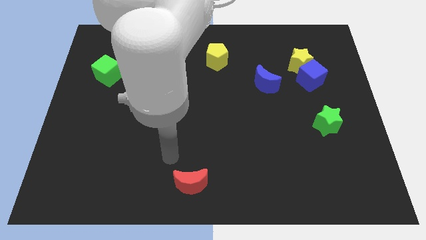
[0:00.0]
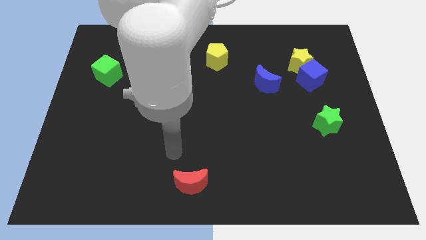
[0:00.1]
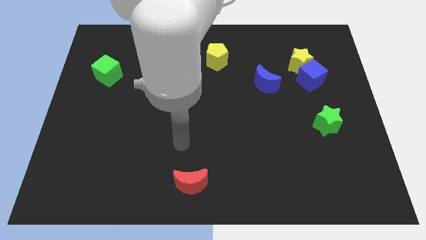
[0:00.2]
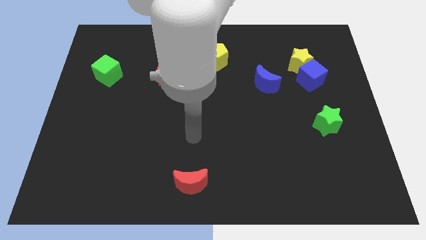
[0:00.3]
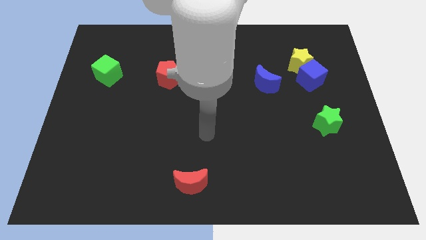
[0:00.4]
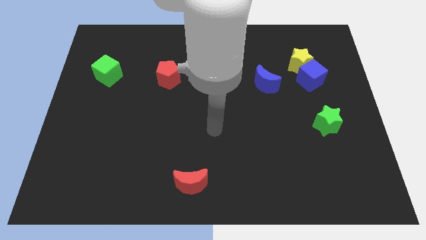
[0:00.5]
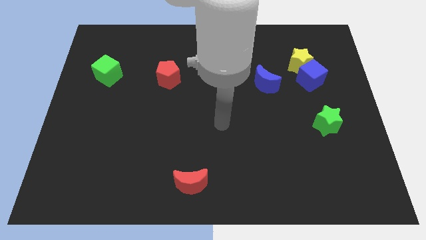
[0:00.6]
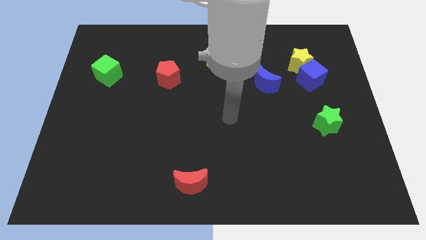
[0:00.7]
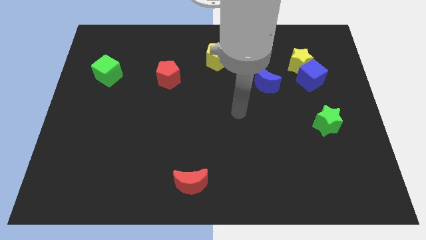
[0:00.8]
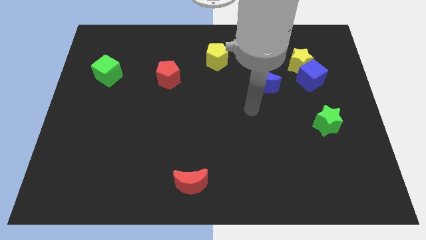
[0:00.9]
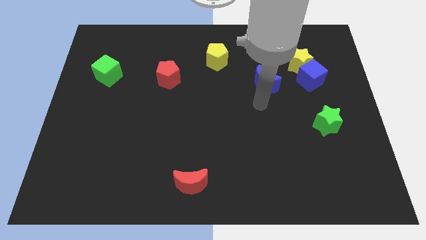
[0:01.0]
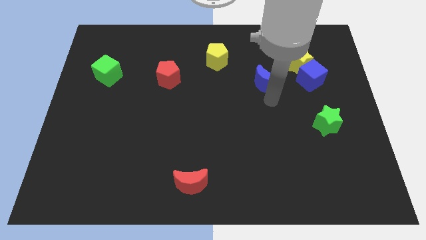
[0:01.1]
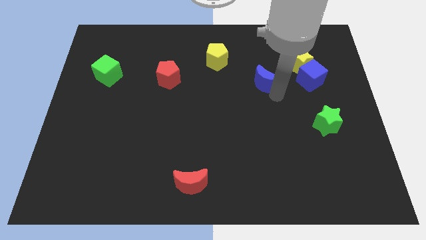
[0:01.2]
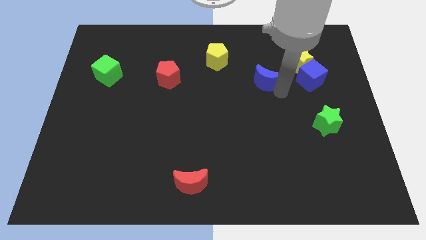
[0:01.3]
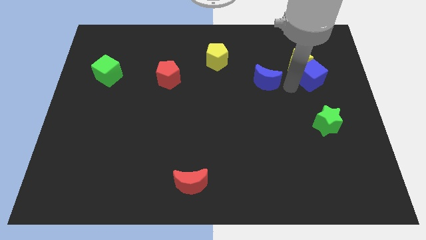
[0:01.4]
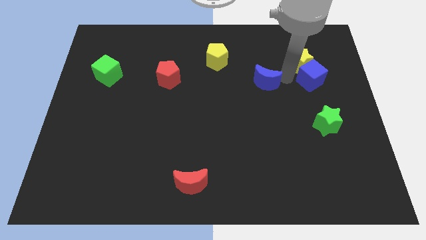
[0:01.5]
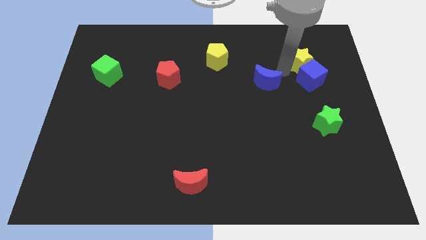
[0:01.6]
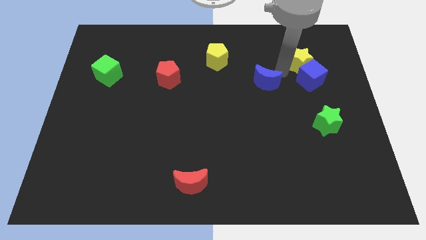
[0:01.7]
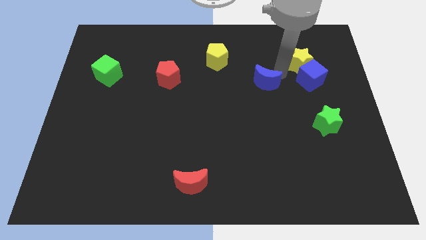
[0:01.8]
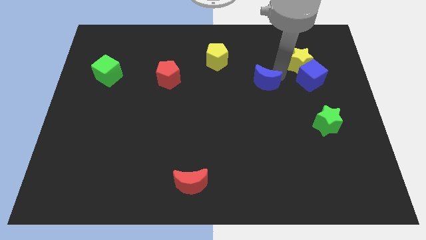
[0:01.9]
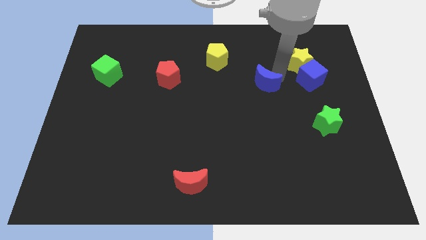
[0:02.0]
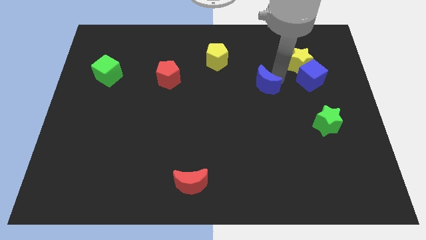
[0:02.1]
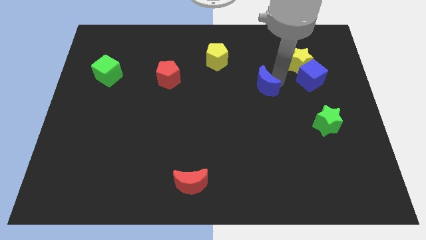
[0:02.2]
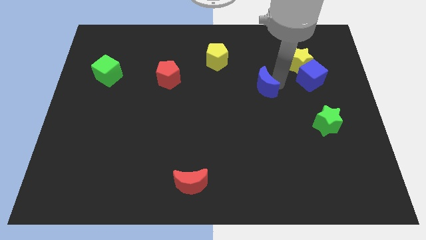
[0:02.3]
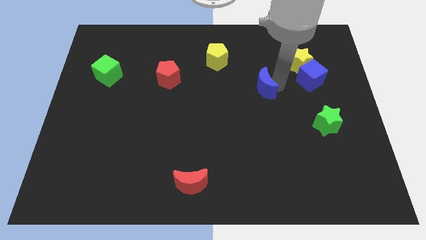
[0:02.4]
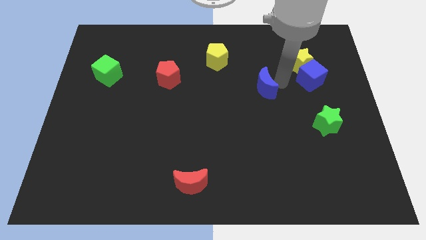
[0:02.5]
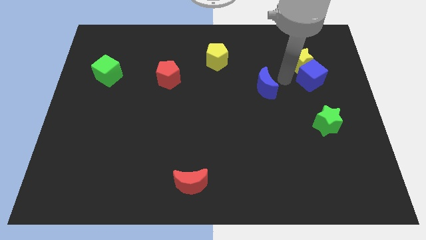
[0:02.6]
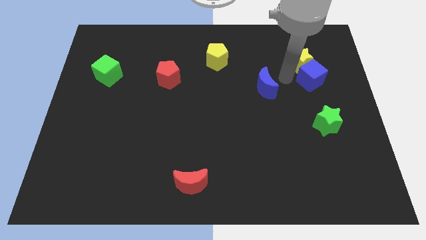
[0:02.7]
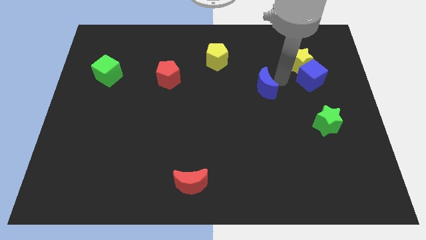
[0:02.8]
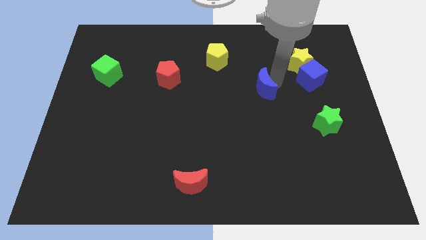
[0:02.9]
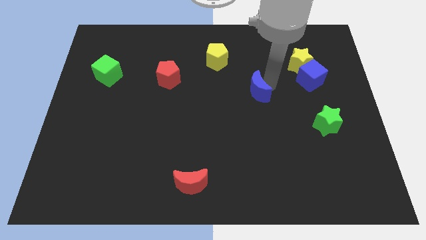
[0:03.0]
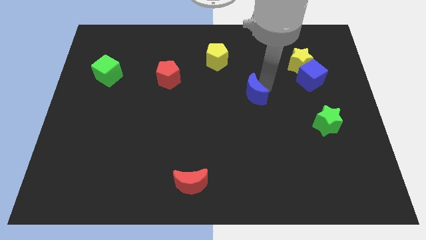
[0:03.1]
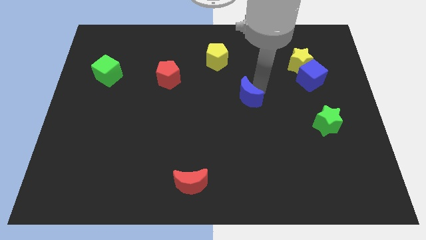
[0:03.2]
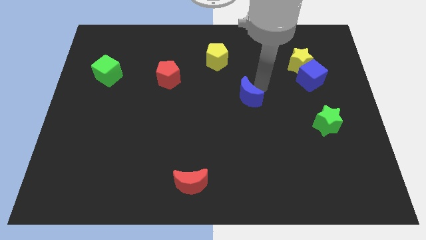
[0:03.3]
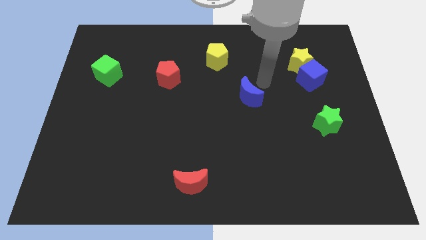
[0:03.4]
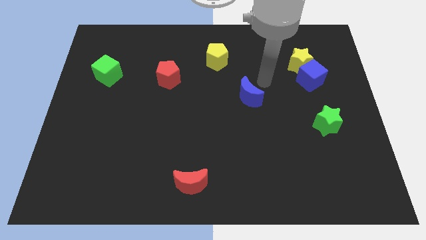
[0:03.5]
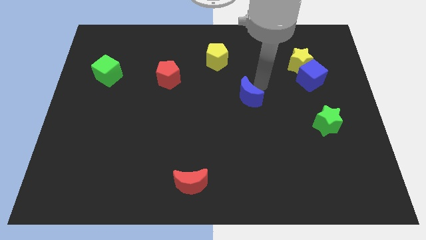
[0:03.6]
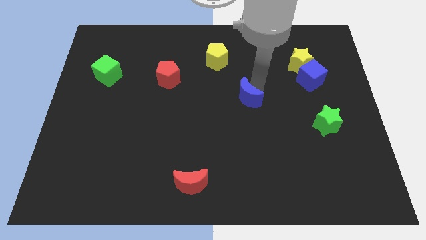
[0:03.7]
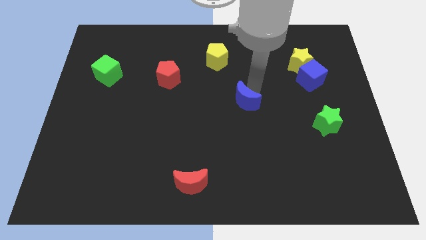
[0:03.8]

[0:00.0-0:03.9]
move the blue moon a little bit diagonally downwards and to the left

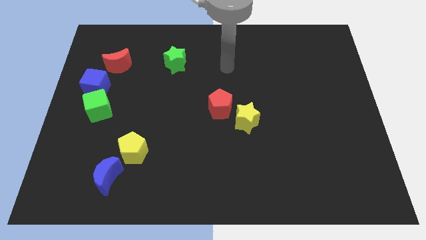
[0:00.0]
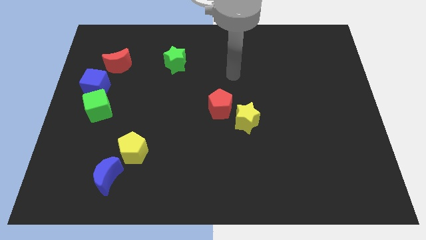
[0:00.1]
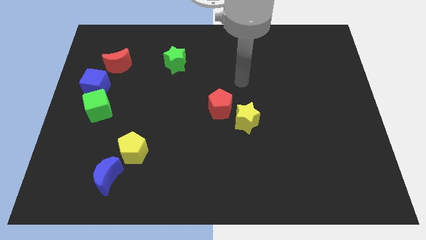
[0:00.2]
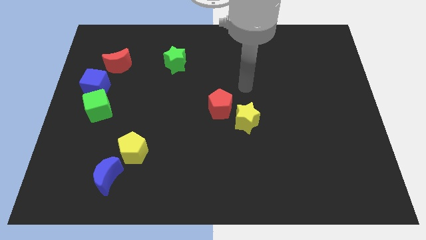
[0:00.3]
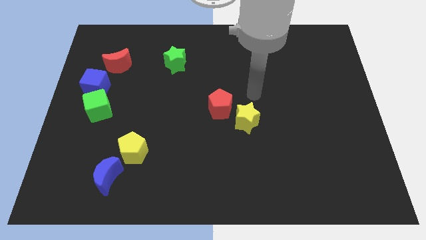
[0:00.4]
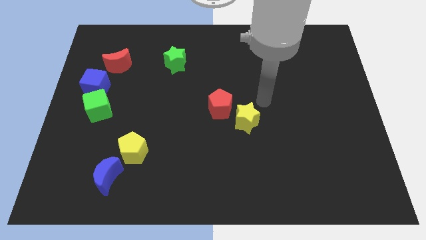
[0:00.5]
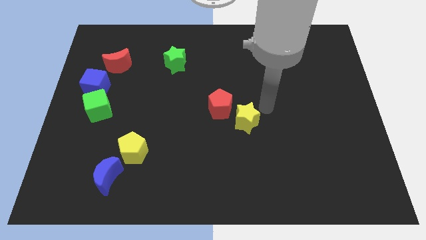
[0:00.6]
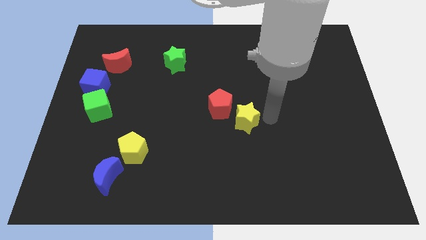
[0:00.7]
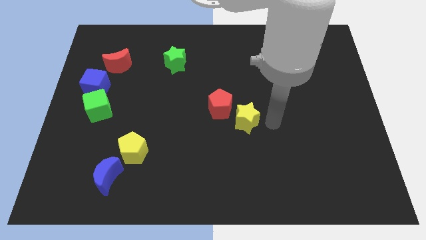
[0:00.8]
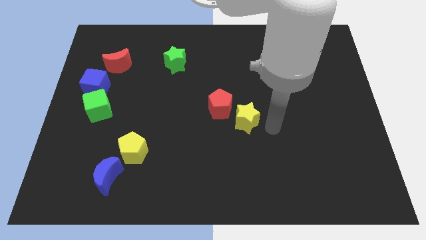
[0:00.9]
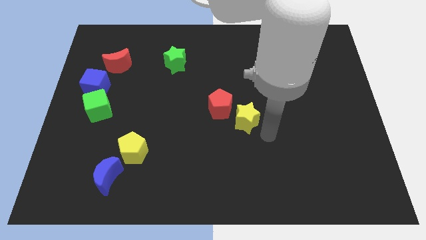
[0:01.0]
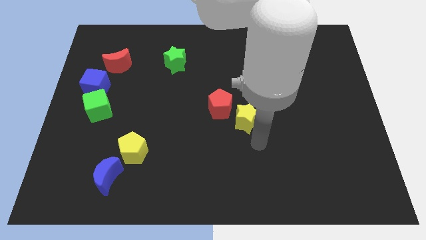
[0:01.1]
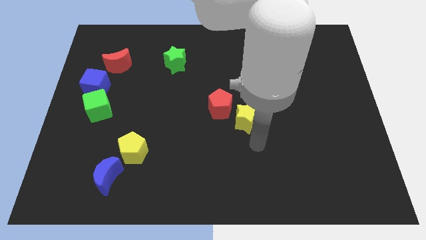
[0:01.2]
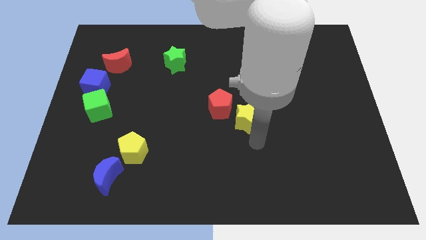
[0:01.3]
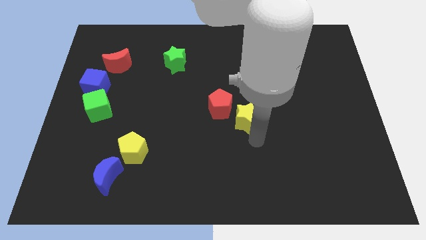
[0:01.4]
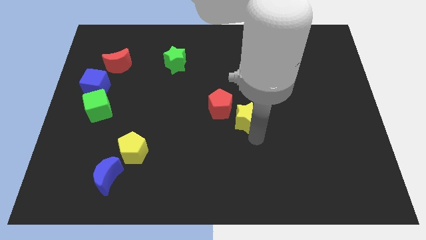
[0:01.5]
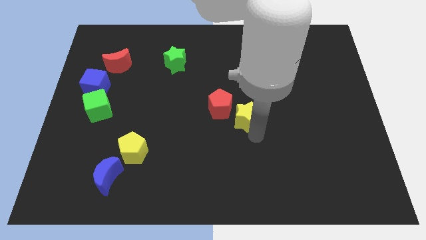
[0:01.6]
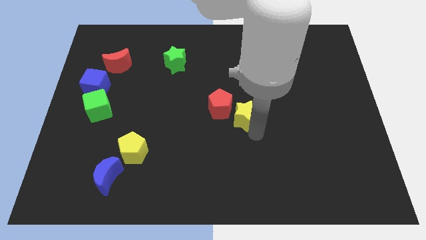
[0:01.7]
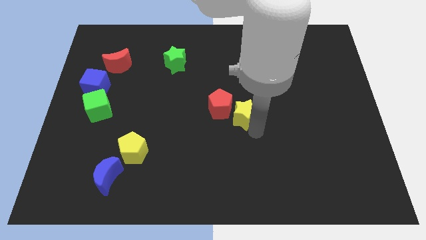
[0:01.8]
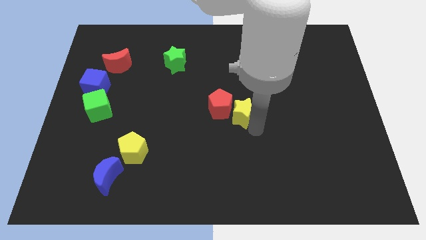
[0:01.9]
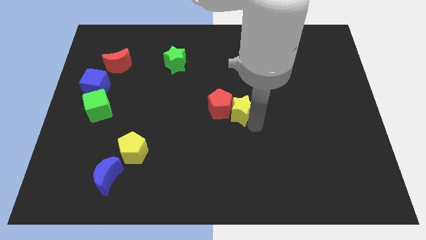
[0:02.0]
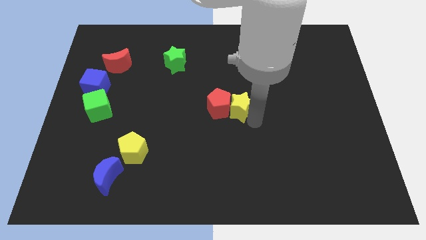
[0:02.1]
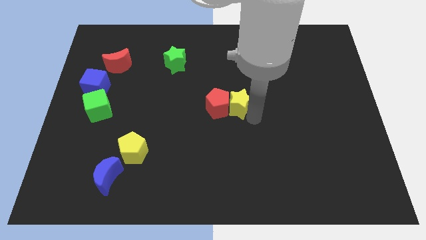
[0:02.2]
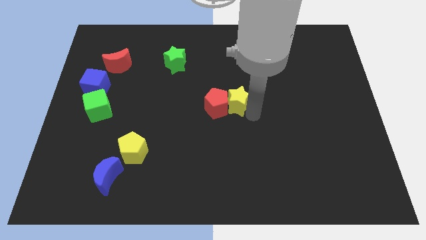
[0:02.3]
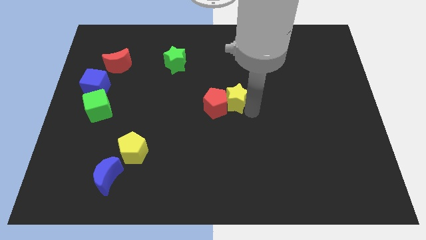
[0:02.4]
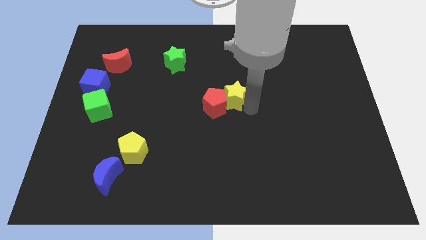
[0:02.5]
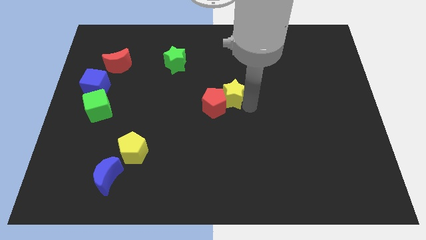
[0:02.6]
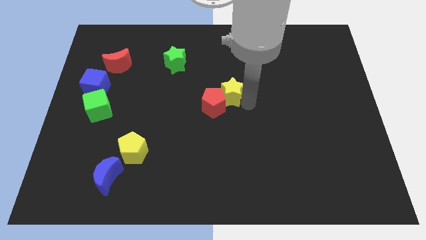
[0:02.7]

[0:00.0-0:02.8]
move the yellow star slightly upwards and then to the left

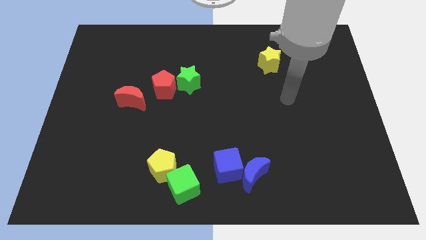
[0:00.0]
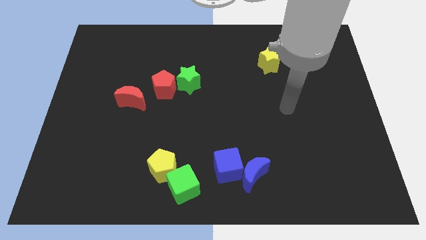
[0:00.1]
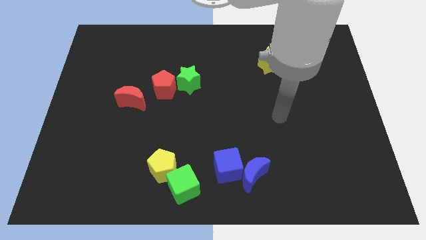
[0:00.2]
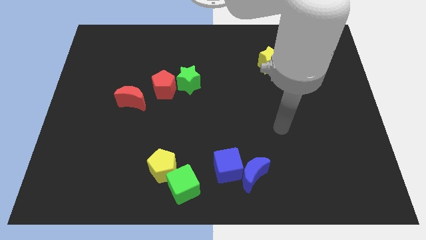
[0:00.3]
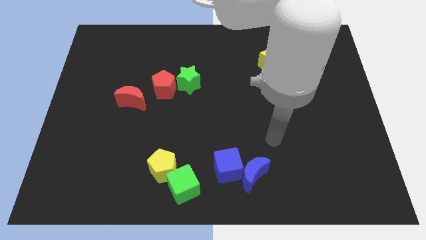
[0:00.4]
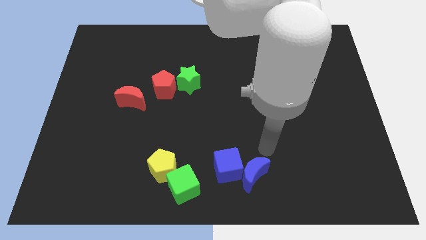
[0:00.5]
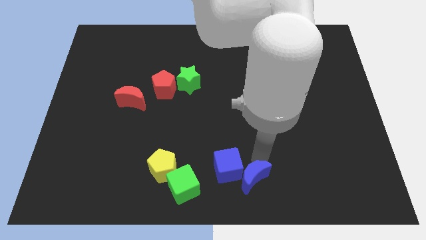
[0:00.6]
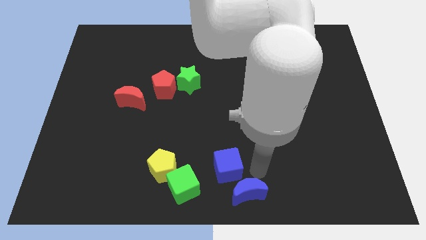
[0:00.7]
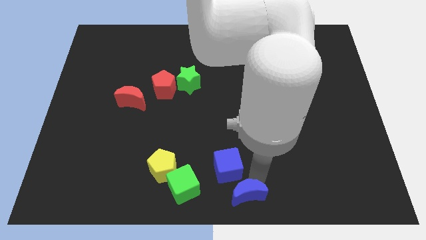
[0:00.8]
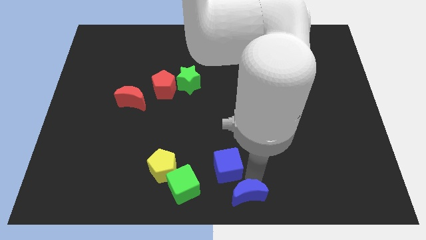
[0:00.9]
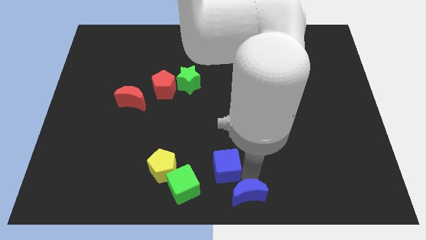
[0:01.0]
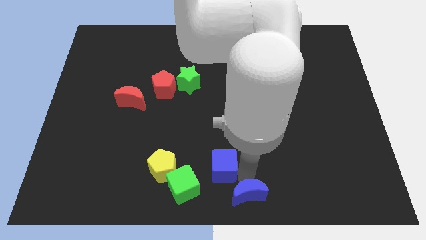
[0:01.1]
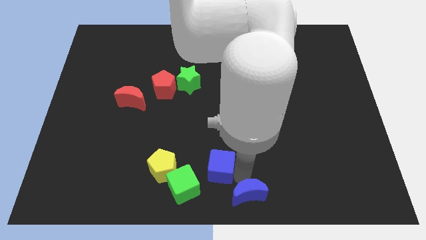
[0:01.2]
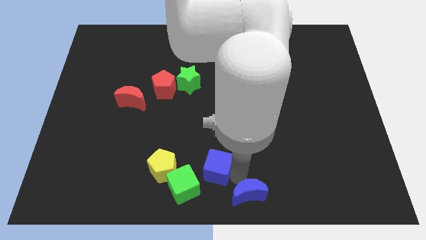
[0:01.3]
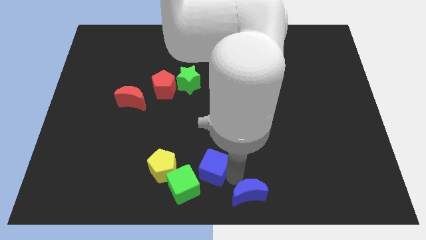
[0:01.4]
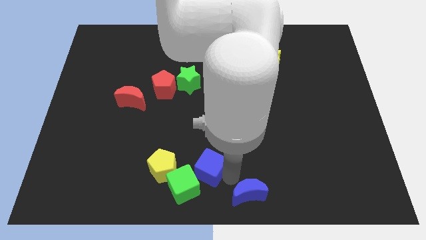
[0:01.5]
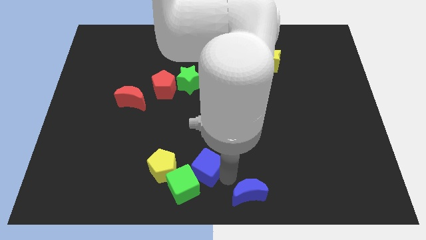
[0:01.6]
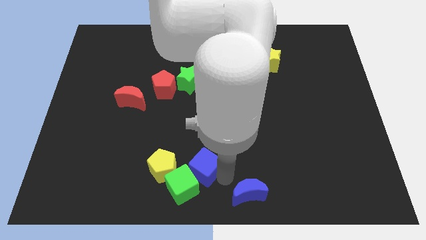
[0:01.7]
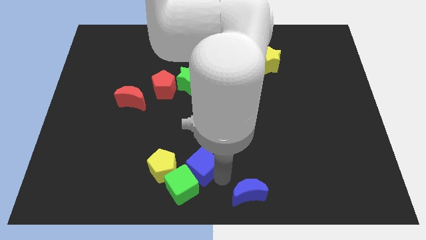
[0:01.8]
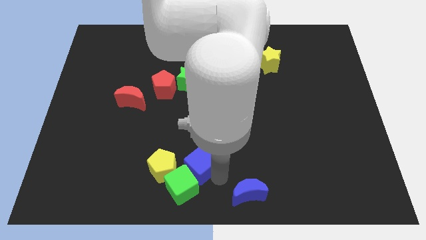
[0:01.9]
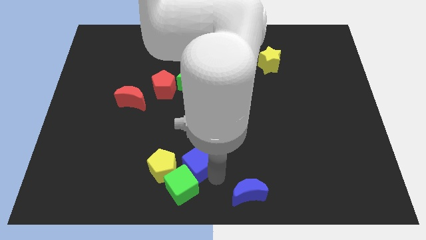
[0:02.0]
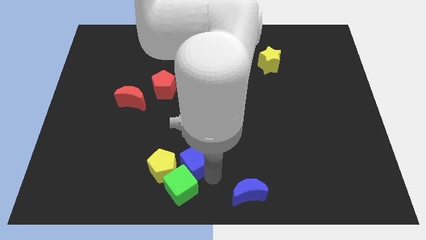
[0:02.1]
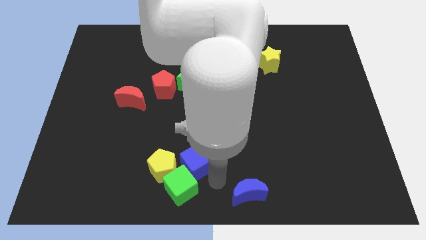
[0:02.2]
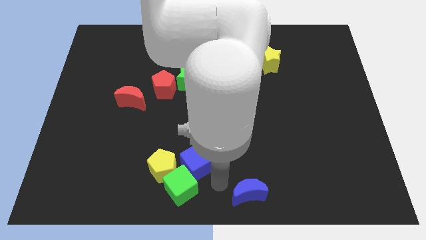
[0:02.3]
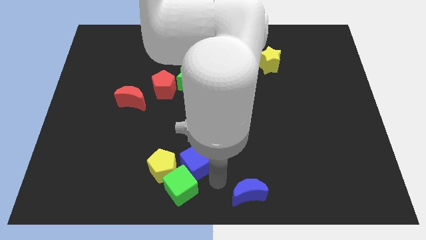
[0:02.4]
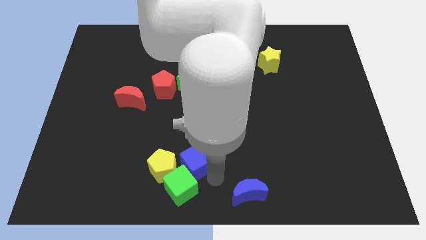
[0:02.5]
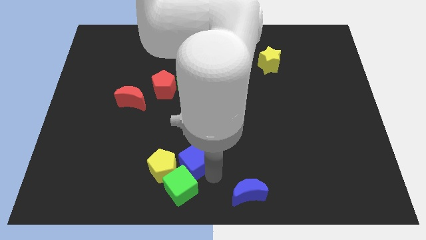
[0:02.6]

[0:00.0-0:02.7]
slightly push the blue cube left
